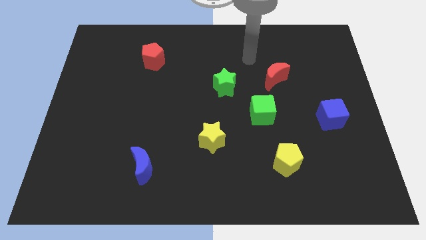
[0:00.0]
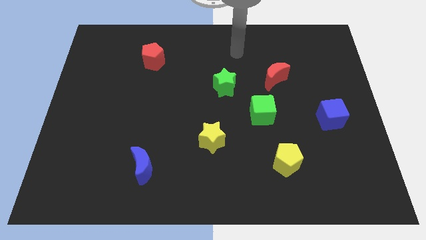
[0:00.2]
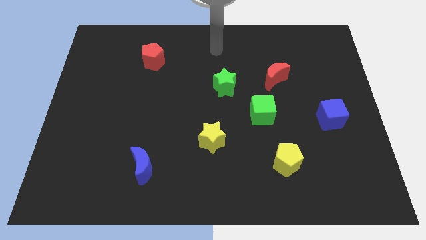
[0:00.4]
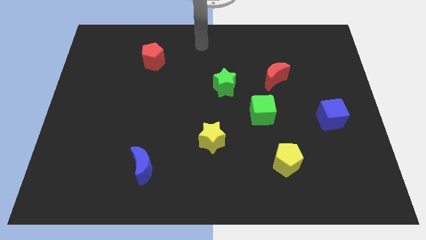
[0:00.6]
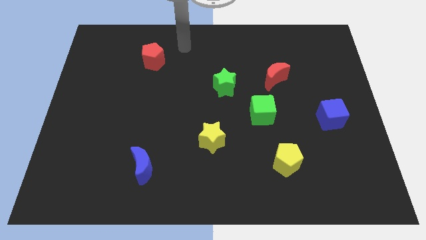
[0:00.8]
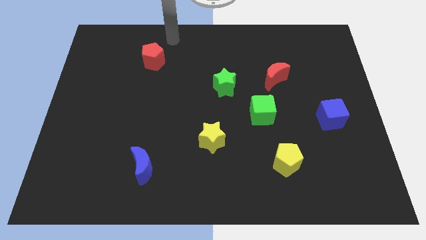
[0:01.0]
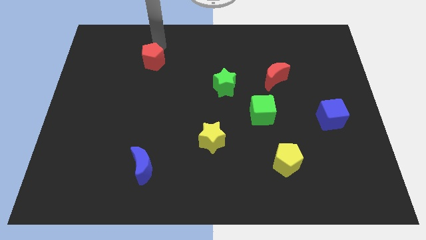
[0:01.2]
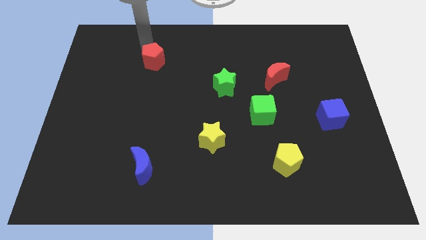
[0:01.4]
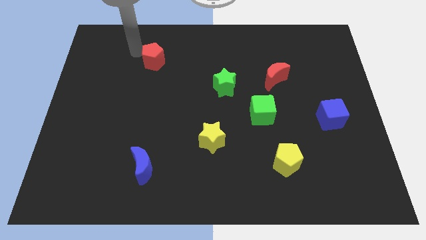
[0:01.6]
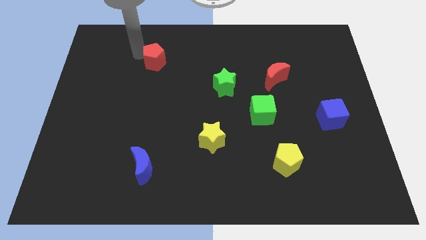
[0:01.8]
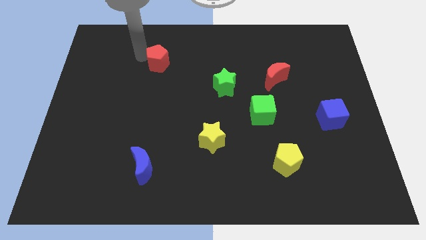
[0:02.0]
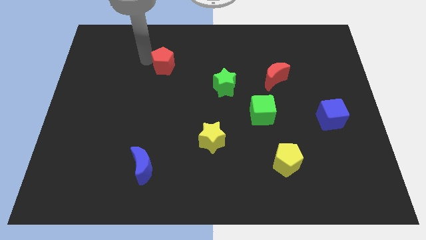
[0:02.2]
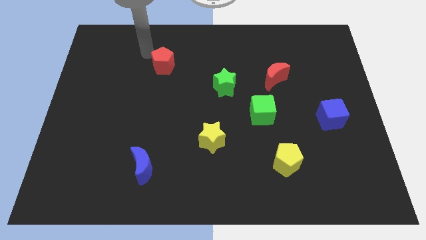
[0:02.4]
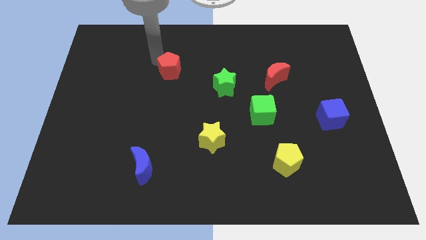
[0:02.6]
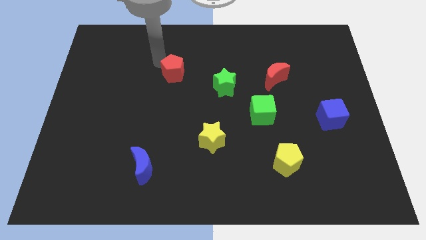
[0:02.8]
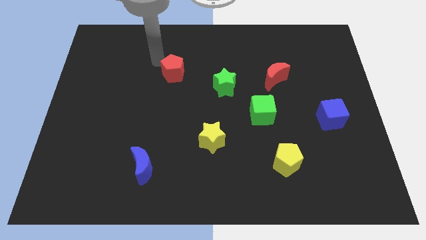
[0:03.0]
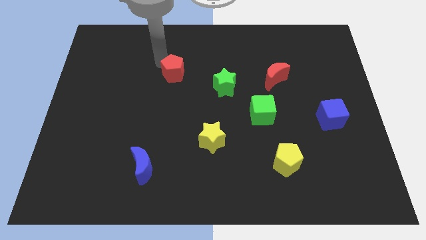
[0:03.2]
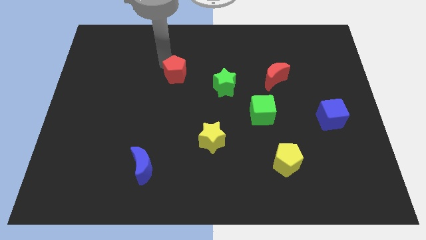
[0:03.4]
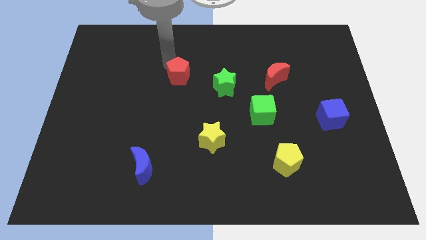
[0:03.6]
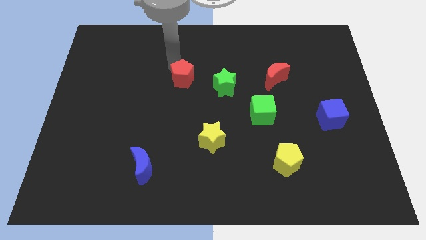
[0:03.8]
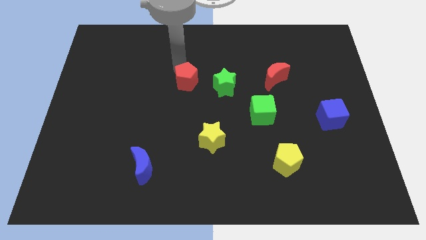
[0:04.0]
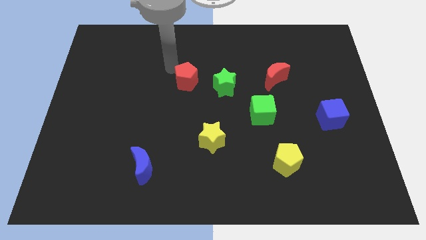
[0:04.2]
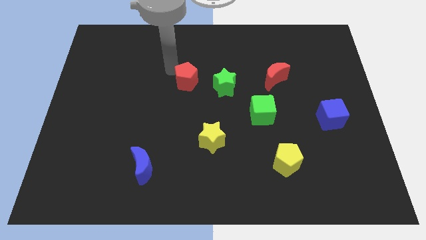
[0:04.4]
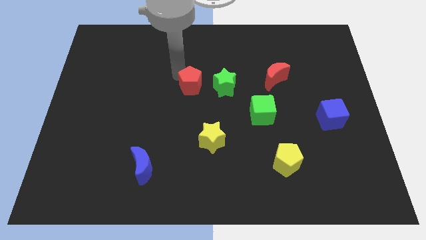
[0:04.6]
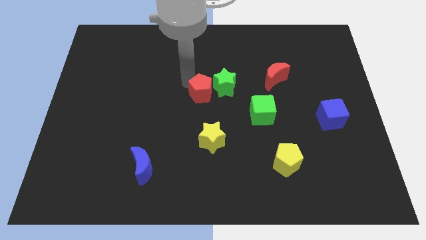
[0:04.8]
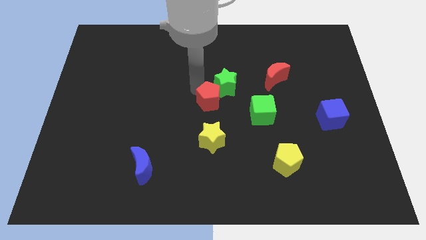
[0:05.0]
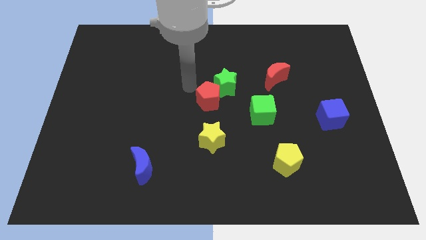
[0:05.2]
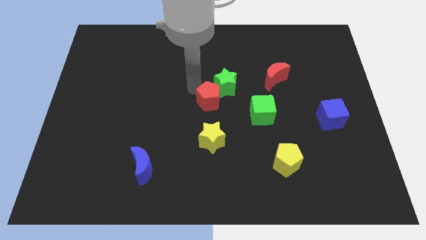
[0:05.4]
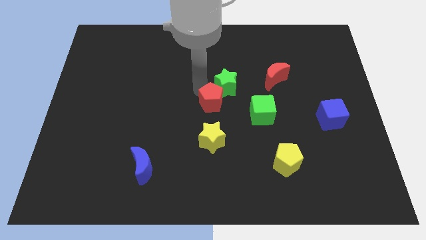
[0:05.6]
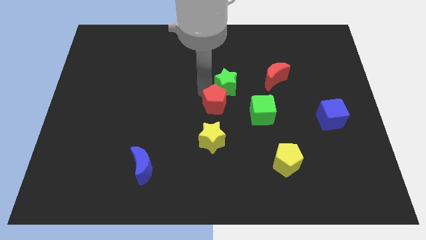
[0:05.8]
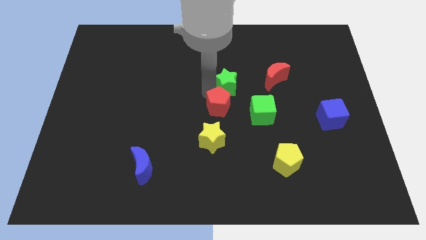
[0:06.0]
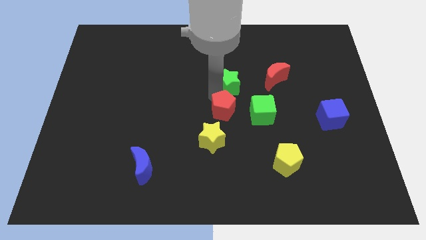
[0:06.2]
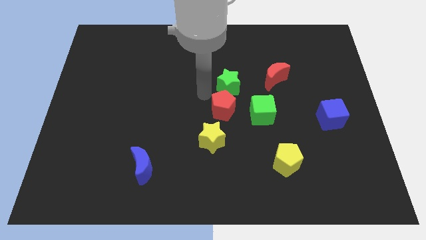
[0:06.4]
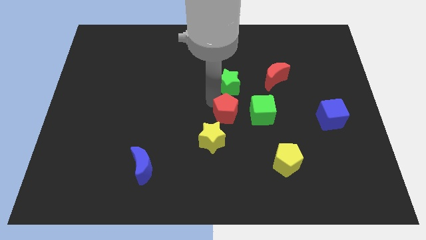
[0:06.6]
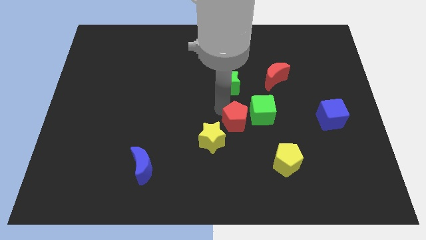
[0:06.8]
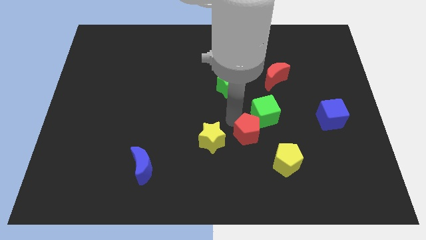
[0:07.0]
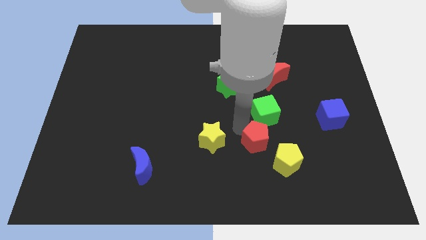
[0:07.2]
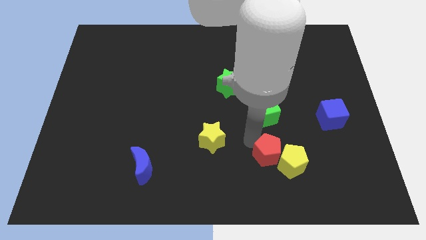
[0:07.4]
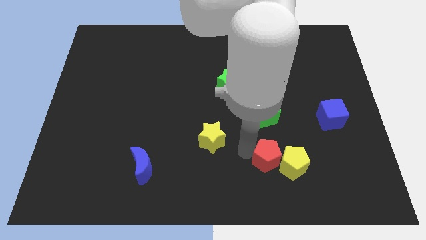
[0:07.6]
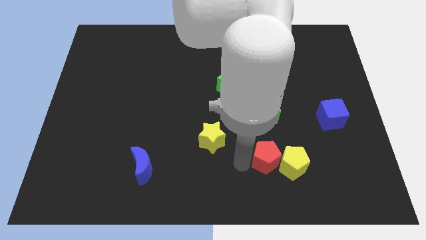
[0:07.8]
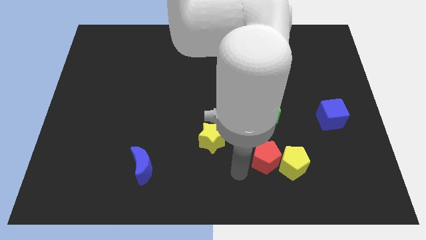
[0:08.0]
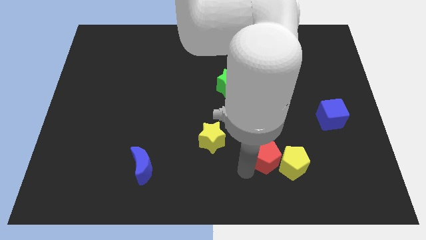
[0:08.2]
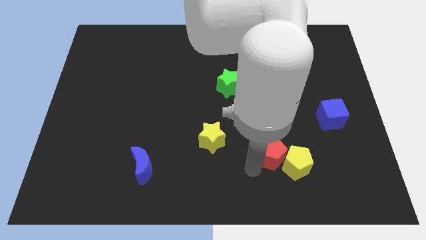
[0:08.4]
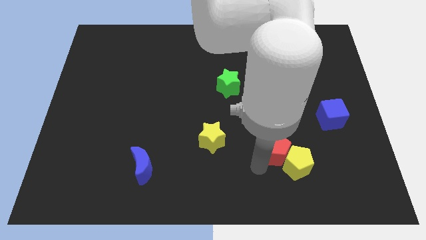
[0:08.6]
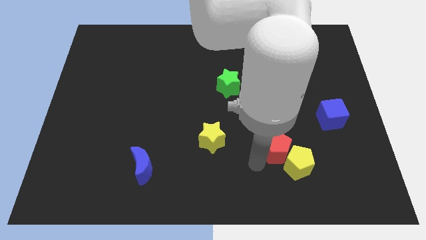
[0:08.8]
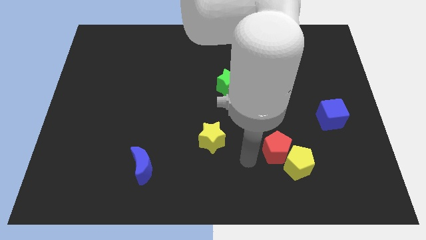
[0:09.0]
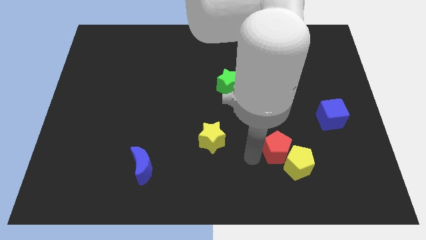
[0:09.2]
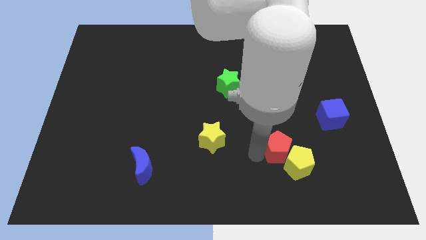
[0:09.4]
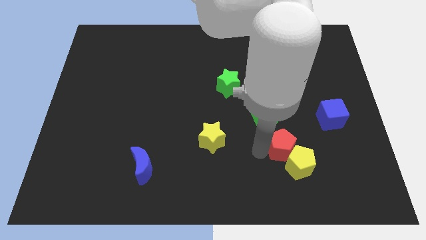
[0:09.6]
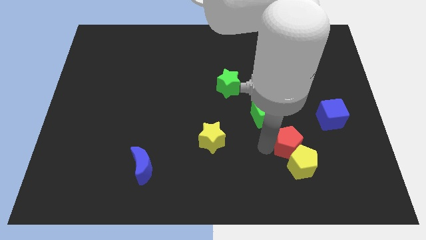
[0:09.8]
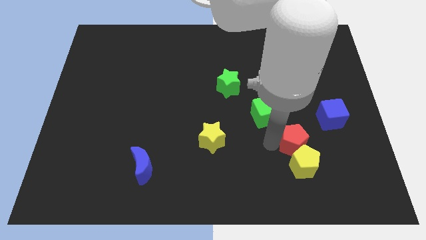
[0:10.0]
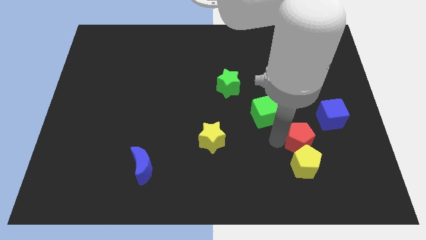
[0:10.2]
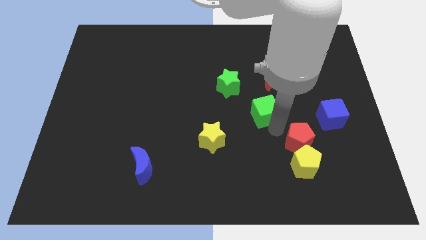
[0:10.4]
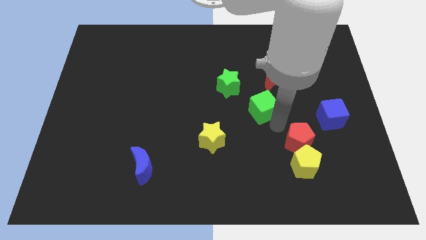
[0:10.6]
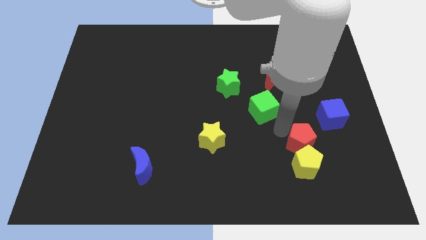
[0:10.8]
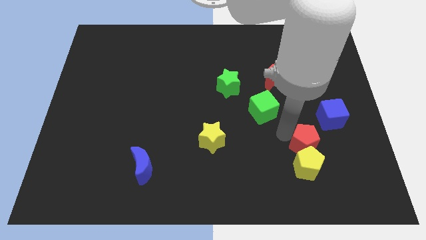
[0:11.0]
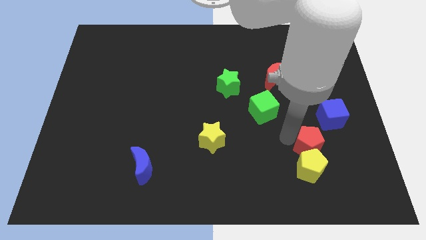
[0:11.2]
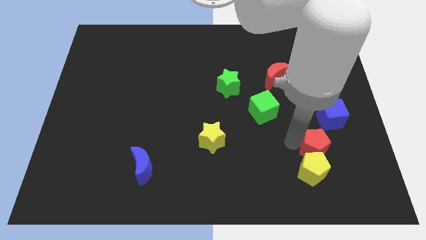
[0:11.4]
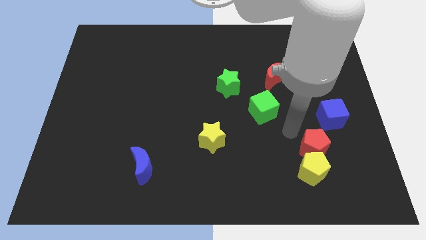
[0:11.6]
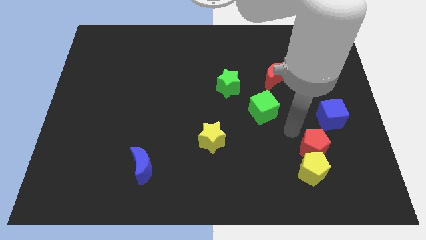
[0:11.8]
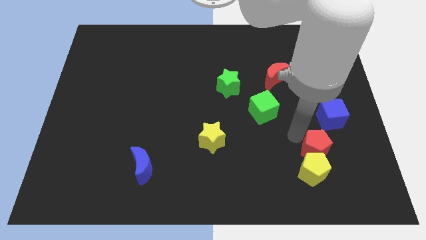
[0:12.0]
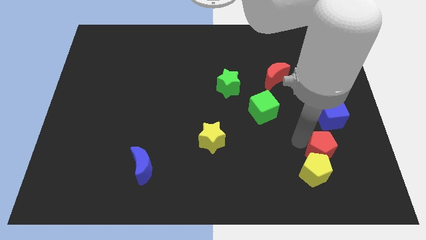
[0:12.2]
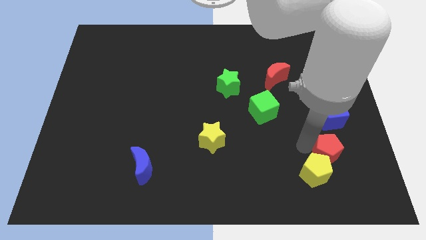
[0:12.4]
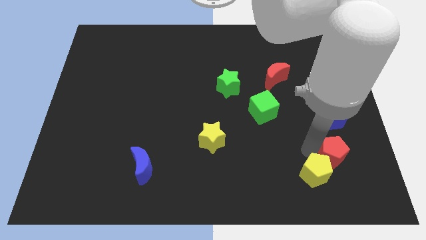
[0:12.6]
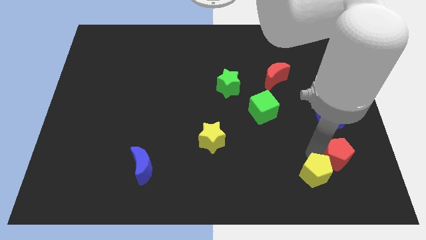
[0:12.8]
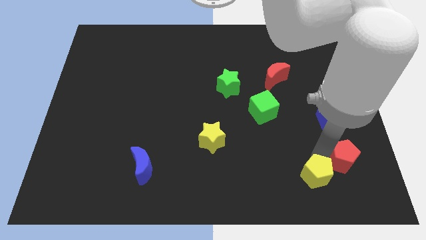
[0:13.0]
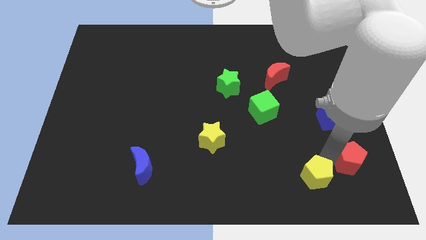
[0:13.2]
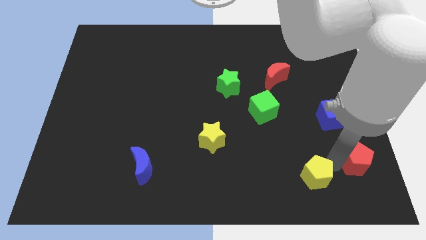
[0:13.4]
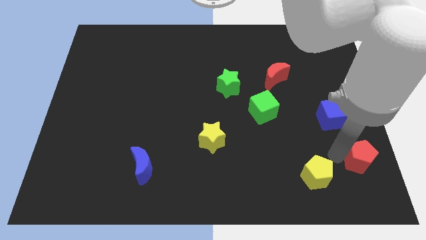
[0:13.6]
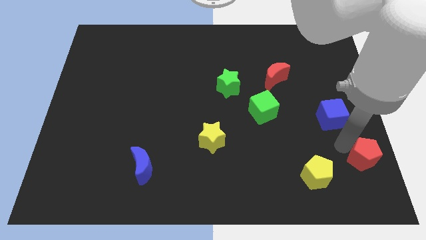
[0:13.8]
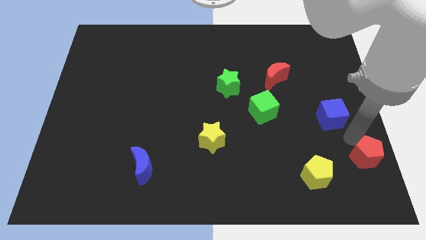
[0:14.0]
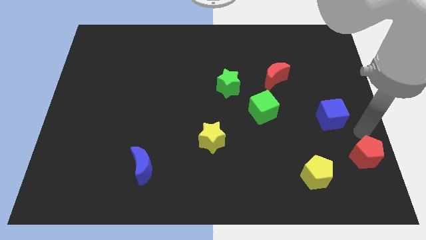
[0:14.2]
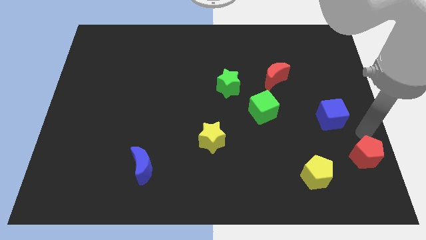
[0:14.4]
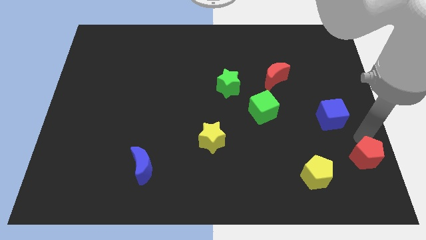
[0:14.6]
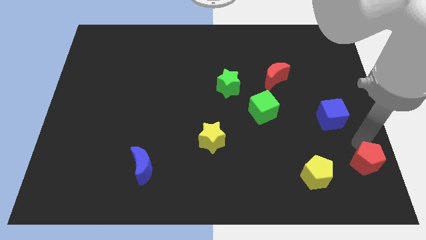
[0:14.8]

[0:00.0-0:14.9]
move the red pentagon to the bottom right of the board
